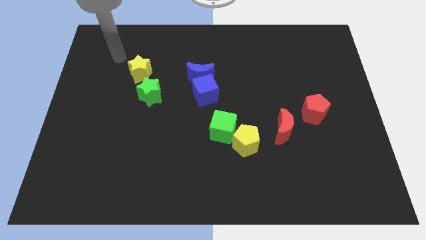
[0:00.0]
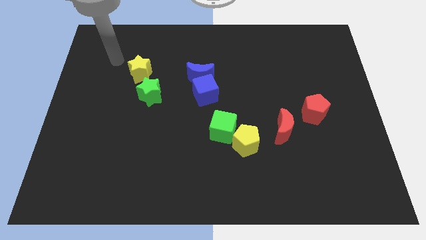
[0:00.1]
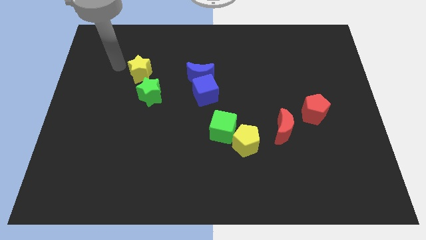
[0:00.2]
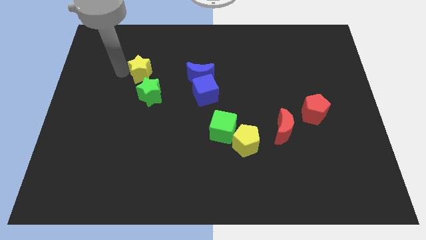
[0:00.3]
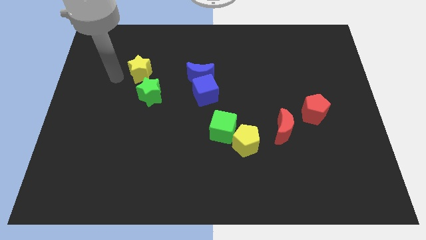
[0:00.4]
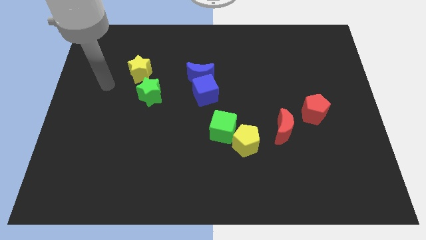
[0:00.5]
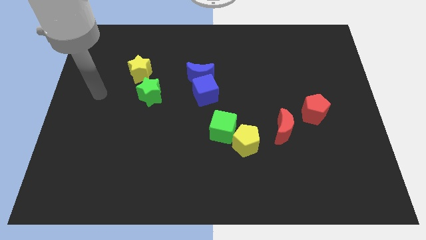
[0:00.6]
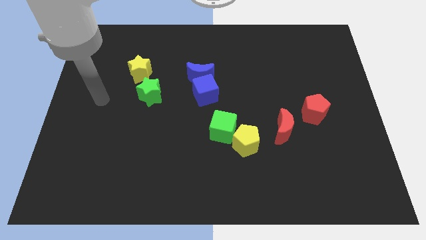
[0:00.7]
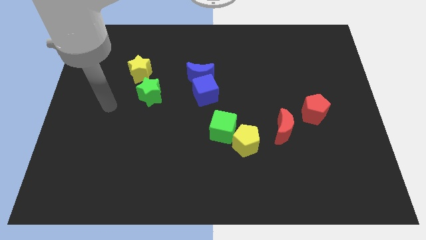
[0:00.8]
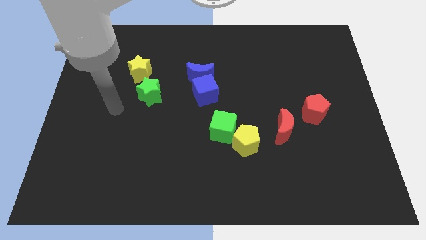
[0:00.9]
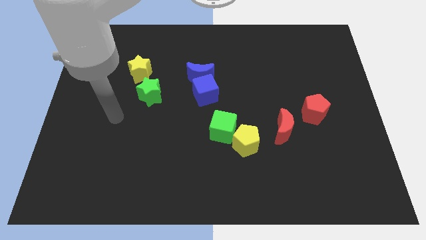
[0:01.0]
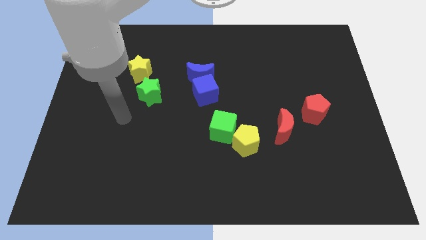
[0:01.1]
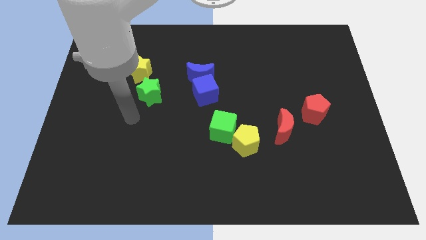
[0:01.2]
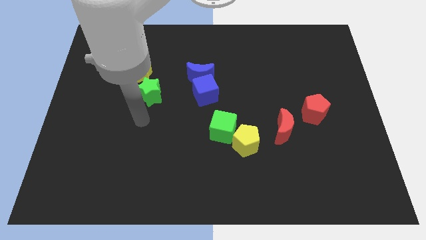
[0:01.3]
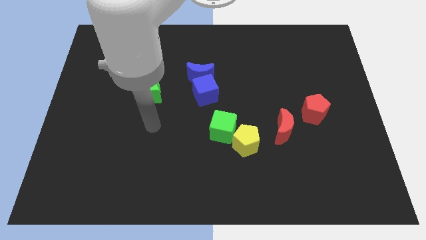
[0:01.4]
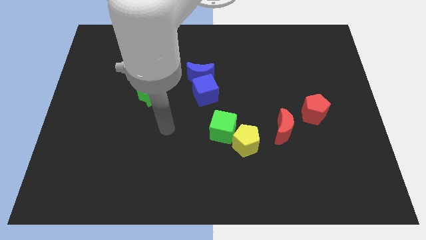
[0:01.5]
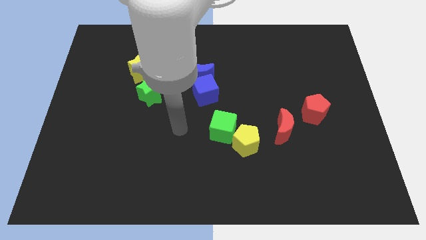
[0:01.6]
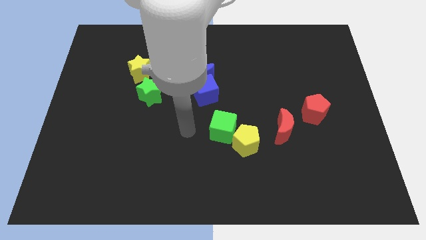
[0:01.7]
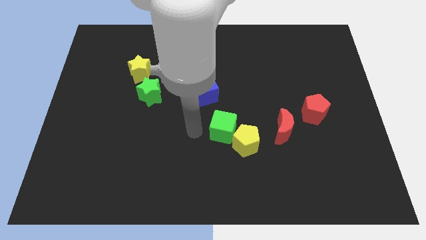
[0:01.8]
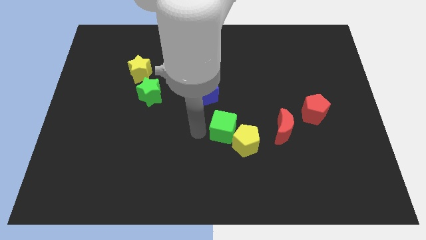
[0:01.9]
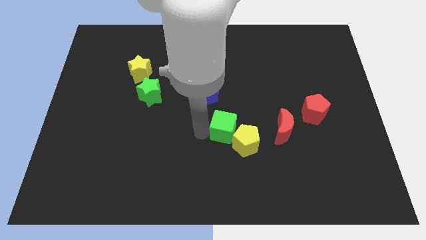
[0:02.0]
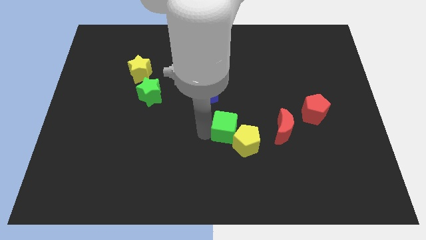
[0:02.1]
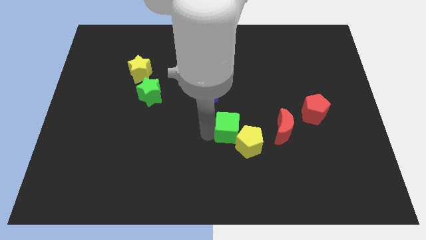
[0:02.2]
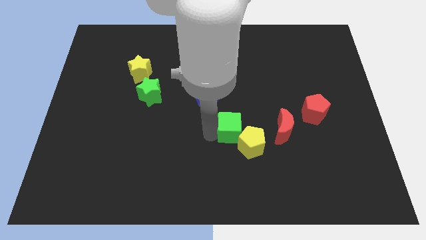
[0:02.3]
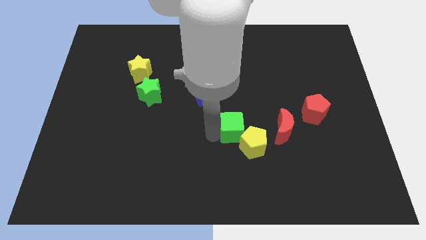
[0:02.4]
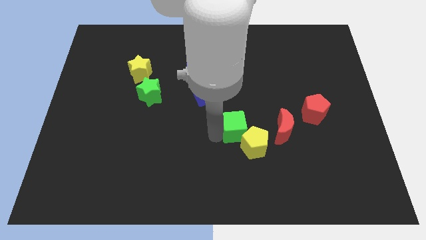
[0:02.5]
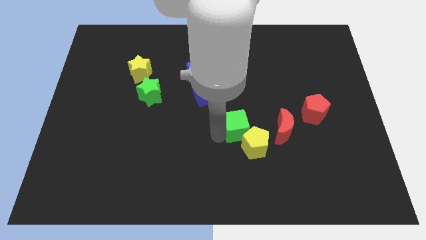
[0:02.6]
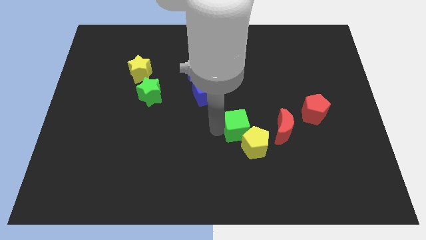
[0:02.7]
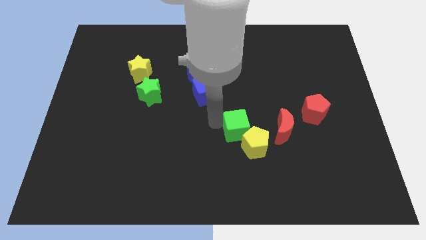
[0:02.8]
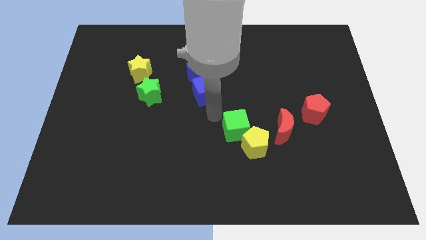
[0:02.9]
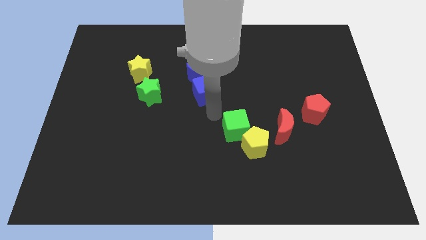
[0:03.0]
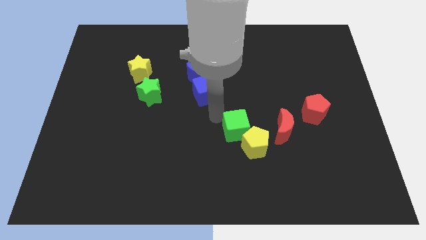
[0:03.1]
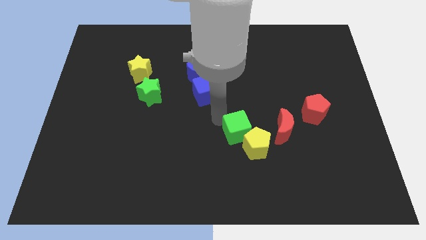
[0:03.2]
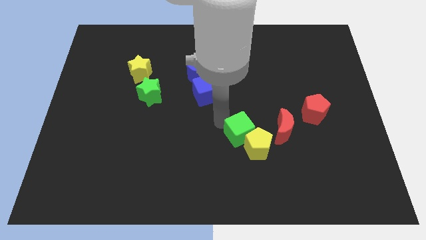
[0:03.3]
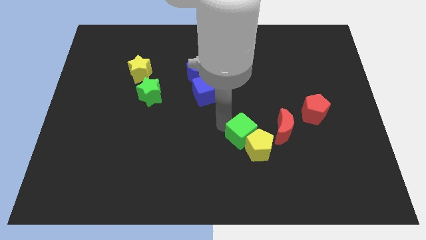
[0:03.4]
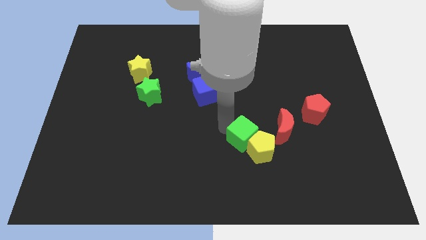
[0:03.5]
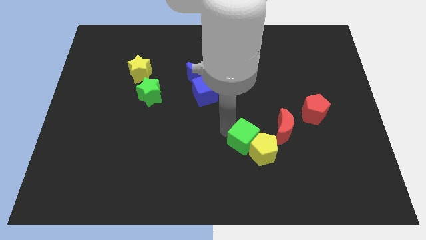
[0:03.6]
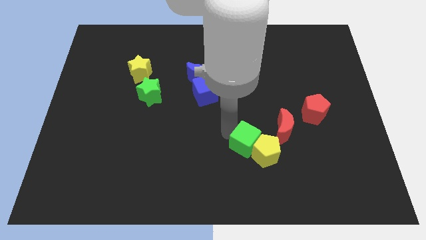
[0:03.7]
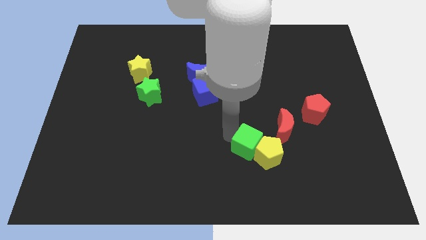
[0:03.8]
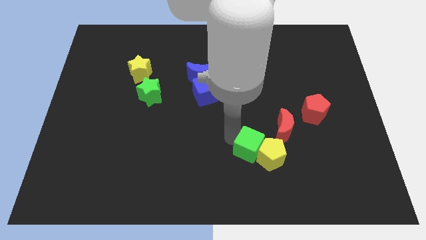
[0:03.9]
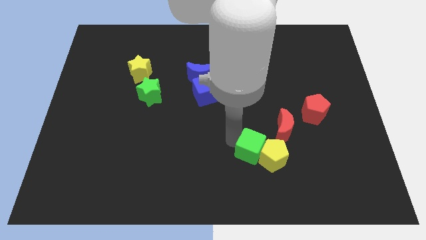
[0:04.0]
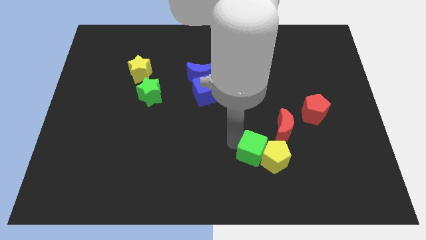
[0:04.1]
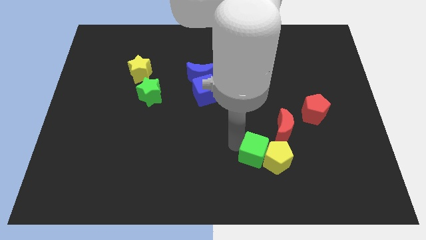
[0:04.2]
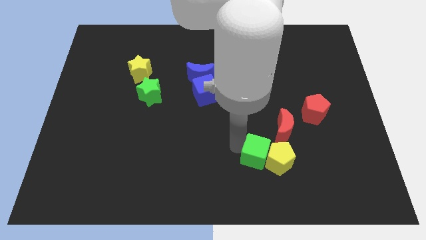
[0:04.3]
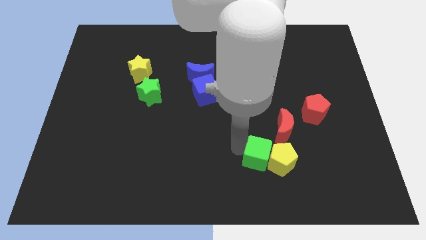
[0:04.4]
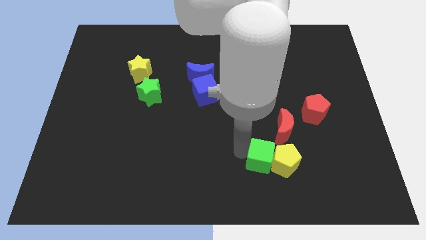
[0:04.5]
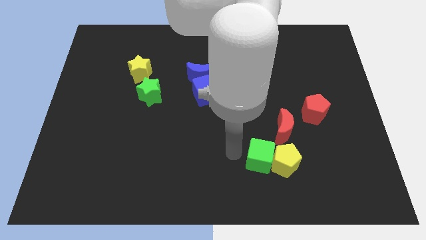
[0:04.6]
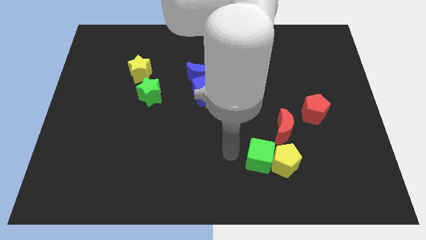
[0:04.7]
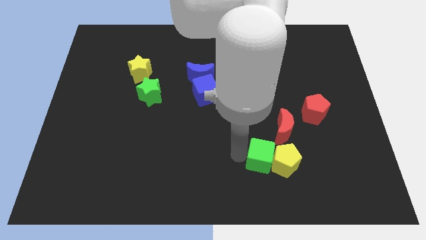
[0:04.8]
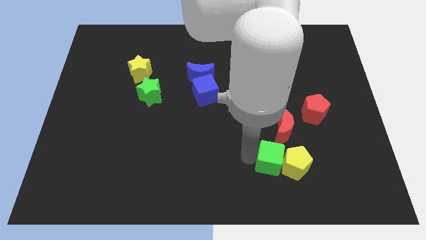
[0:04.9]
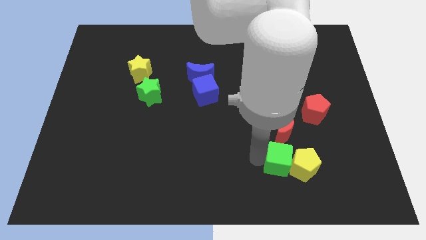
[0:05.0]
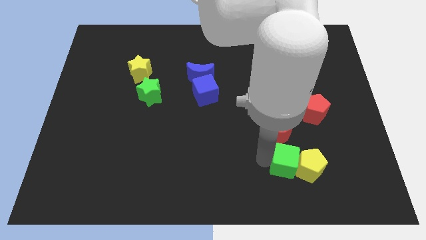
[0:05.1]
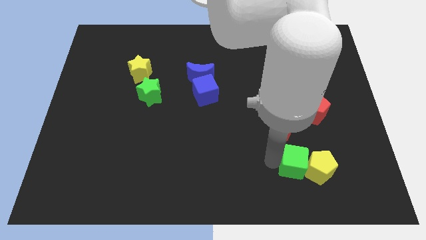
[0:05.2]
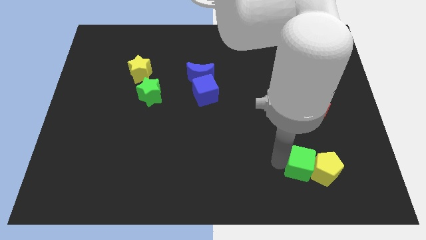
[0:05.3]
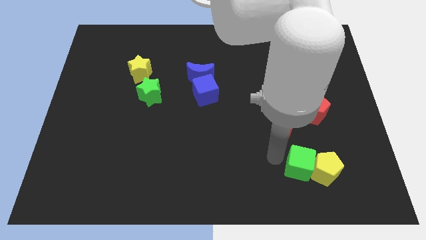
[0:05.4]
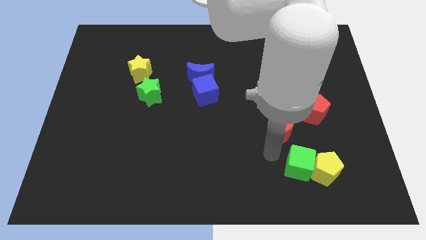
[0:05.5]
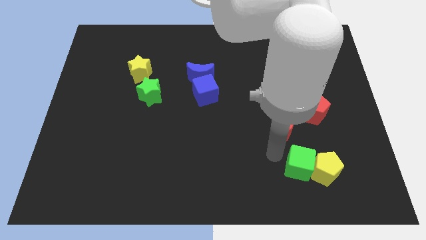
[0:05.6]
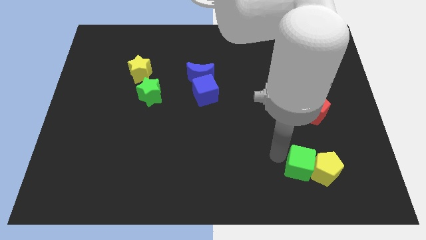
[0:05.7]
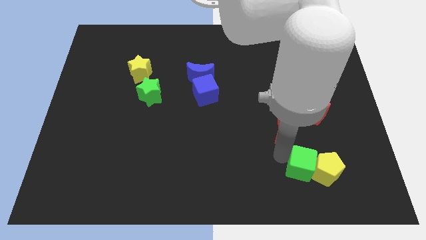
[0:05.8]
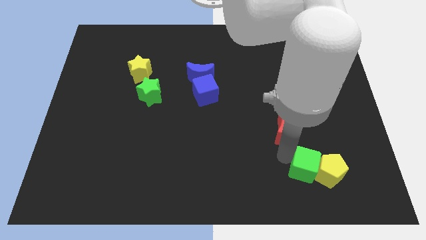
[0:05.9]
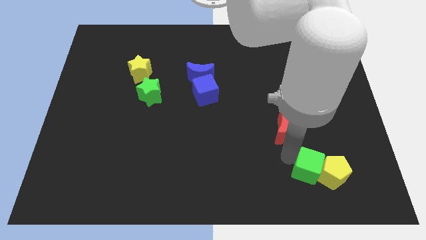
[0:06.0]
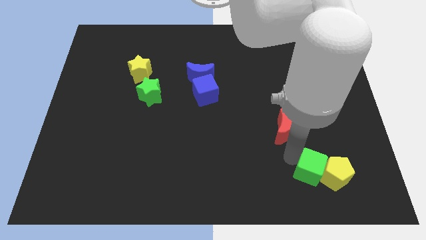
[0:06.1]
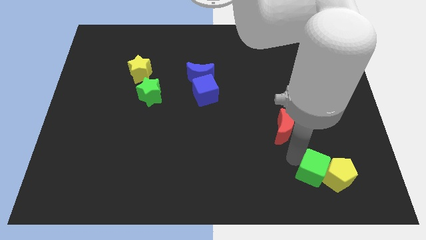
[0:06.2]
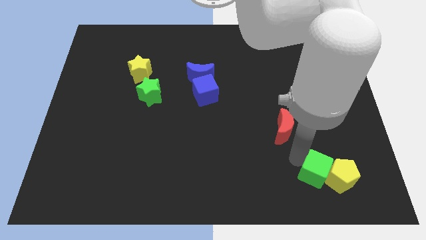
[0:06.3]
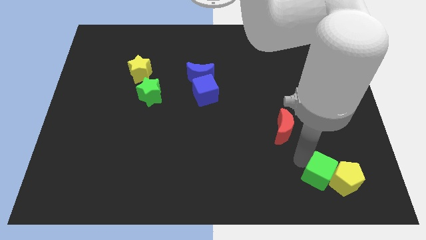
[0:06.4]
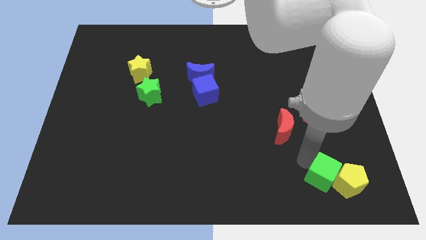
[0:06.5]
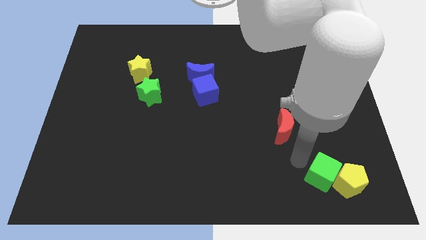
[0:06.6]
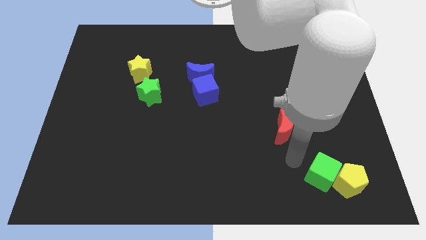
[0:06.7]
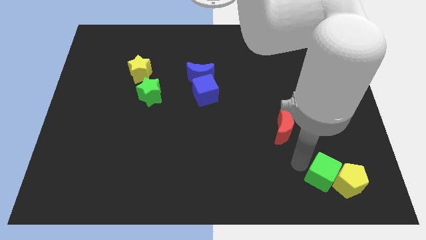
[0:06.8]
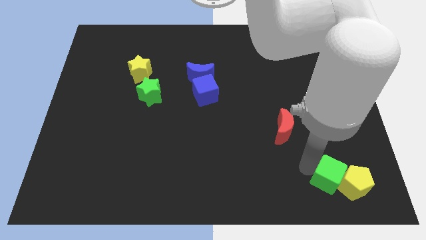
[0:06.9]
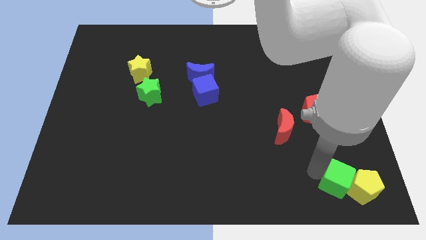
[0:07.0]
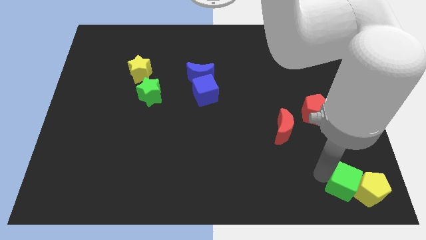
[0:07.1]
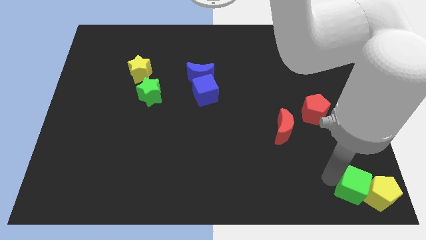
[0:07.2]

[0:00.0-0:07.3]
move the green cube to the bottom right corner
